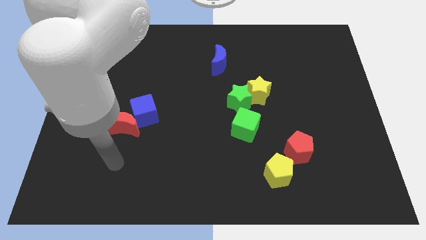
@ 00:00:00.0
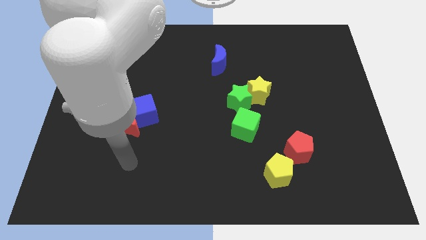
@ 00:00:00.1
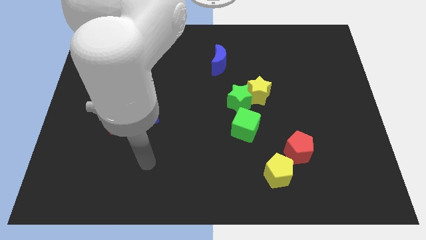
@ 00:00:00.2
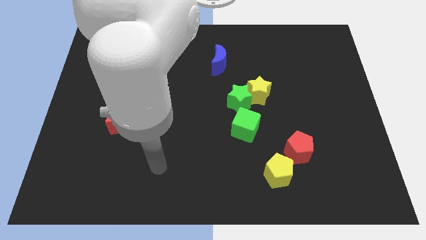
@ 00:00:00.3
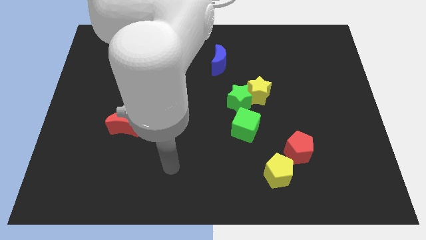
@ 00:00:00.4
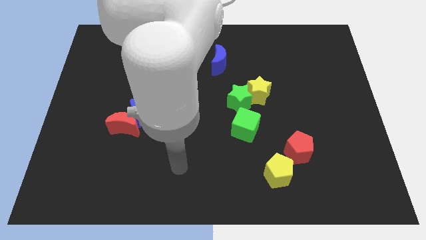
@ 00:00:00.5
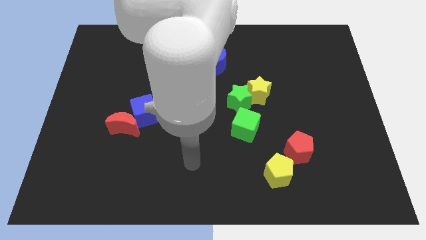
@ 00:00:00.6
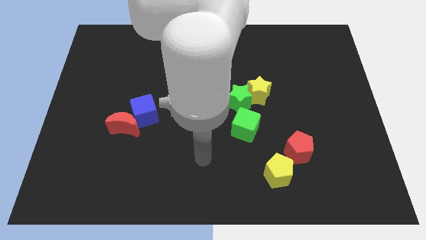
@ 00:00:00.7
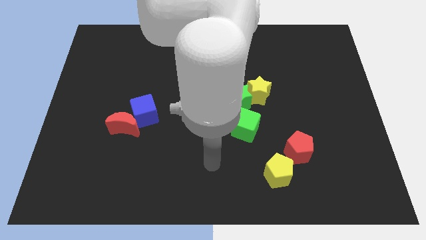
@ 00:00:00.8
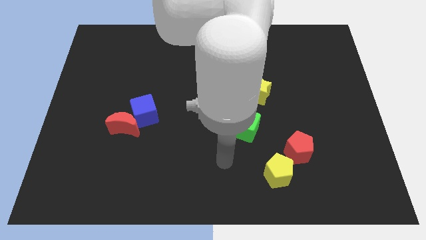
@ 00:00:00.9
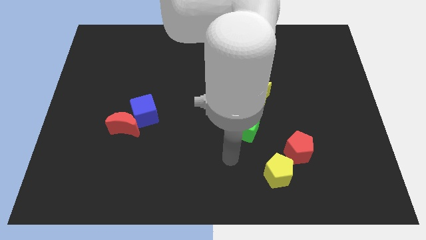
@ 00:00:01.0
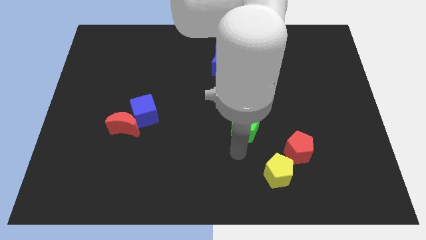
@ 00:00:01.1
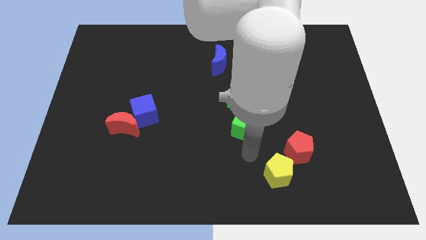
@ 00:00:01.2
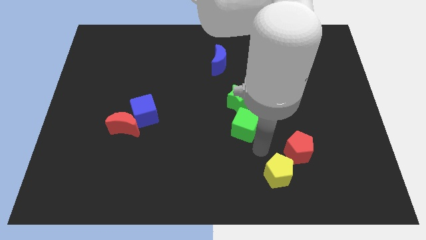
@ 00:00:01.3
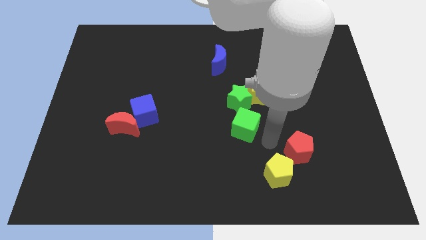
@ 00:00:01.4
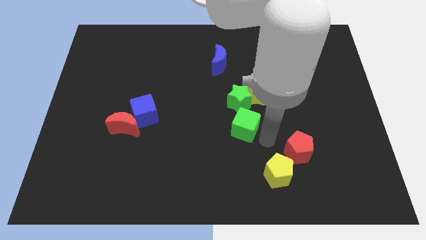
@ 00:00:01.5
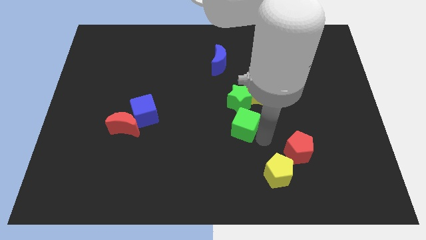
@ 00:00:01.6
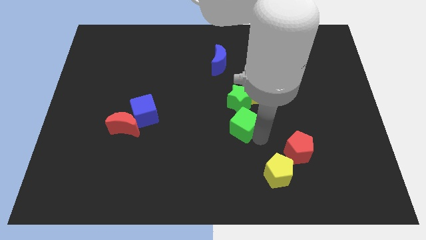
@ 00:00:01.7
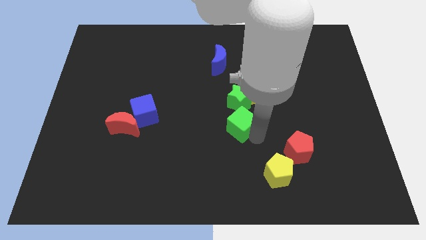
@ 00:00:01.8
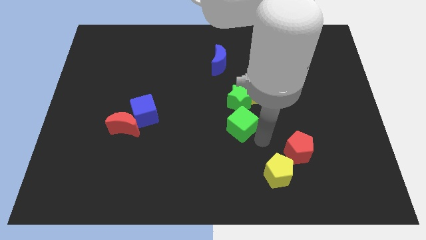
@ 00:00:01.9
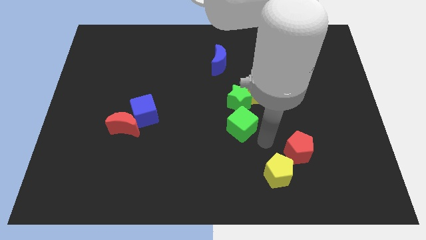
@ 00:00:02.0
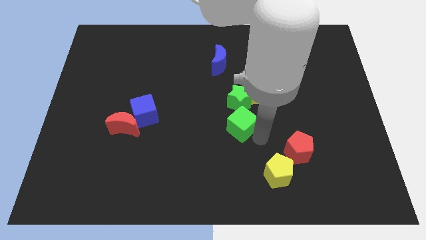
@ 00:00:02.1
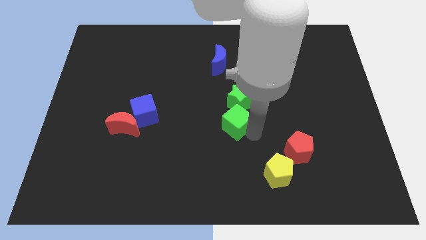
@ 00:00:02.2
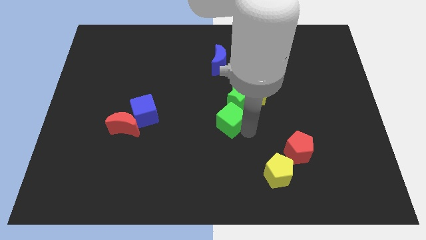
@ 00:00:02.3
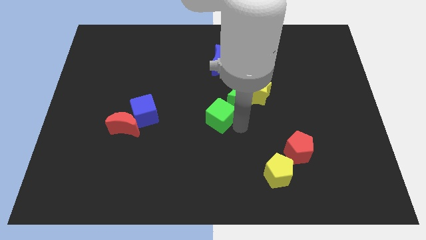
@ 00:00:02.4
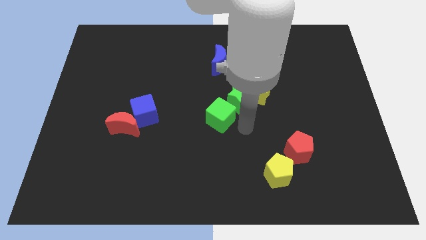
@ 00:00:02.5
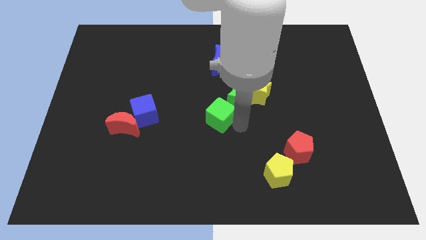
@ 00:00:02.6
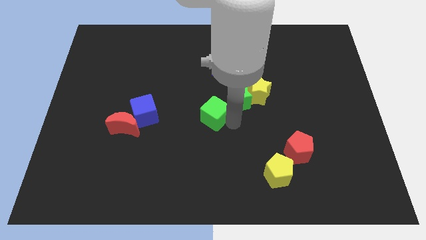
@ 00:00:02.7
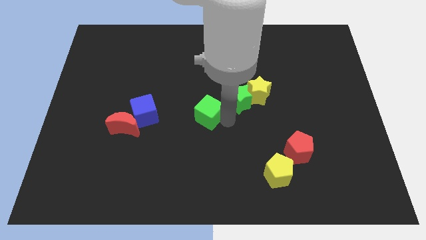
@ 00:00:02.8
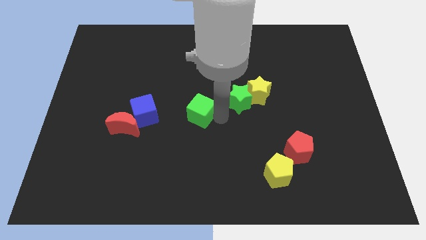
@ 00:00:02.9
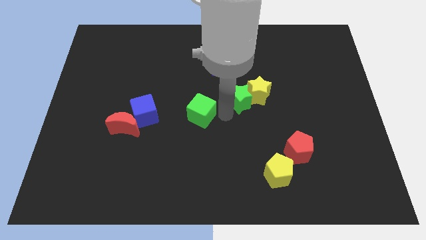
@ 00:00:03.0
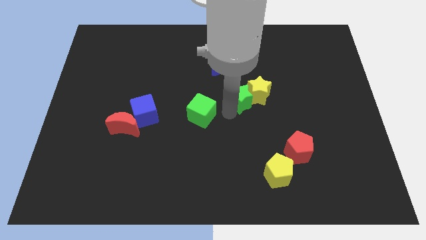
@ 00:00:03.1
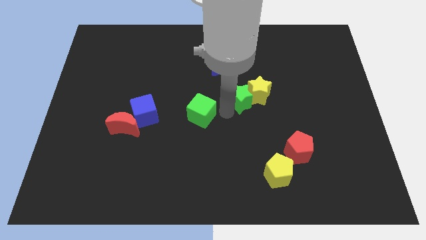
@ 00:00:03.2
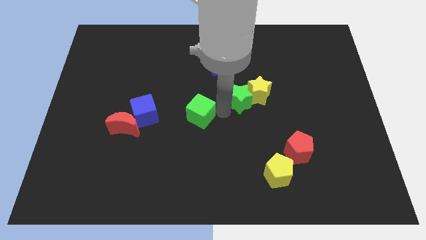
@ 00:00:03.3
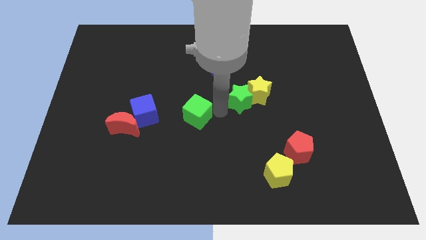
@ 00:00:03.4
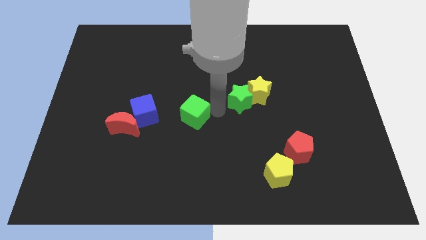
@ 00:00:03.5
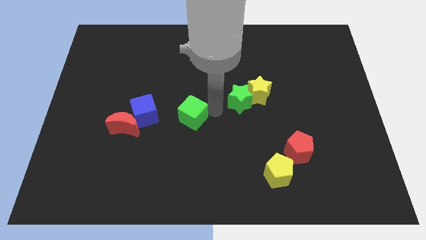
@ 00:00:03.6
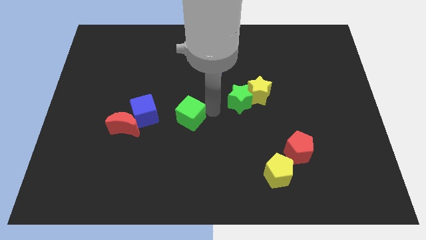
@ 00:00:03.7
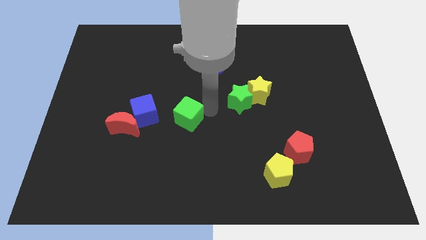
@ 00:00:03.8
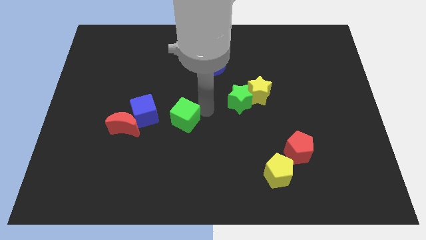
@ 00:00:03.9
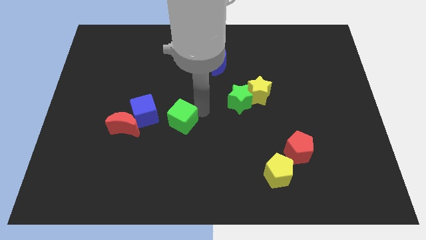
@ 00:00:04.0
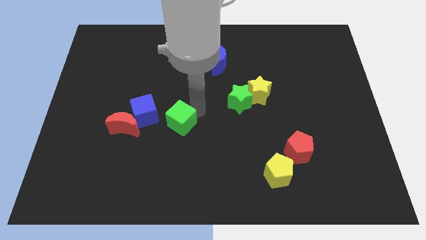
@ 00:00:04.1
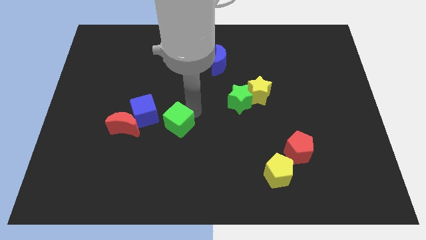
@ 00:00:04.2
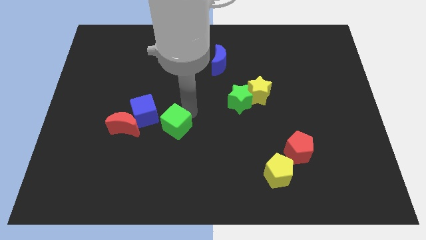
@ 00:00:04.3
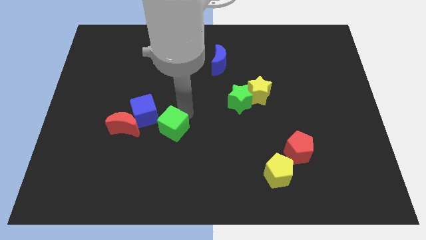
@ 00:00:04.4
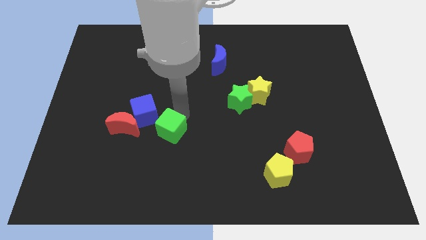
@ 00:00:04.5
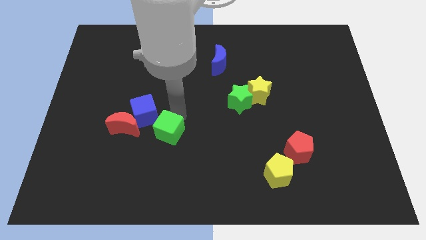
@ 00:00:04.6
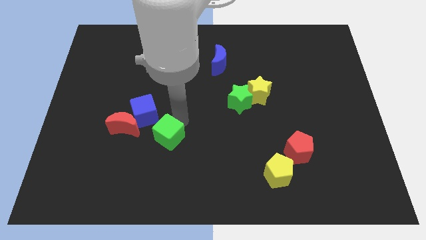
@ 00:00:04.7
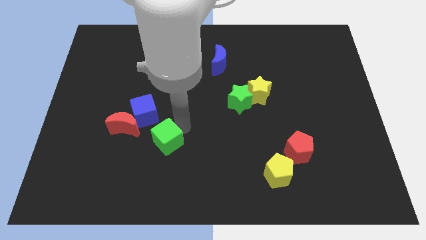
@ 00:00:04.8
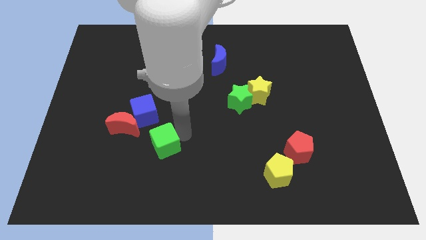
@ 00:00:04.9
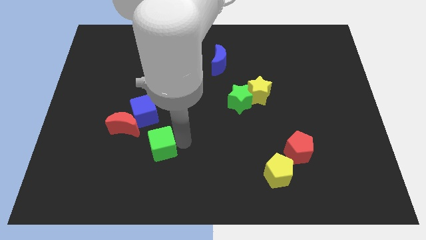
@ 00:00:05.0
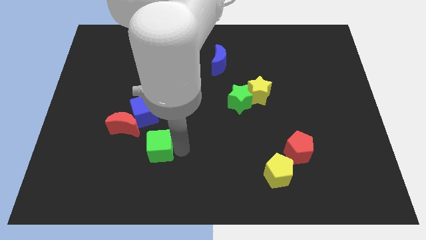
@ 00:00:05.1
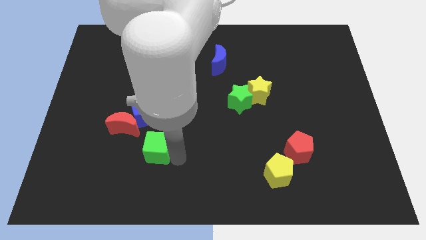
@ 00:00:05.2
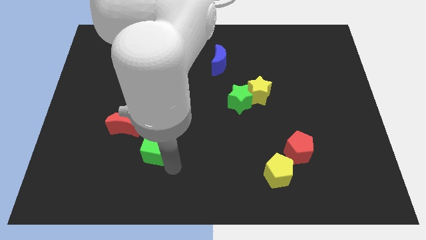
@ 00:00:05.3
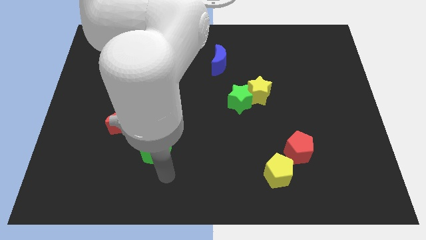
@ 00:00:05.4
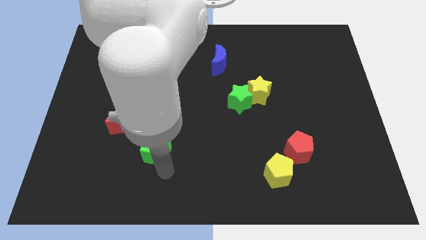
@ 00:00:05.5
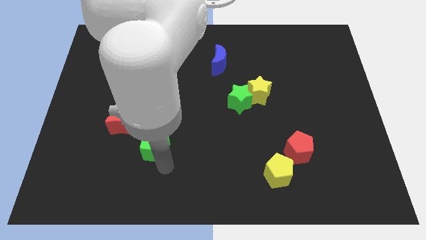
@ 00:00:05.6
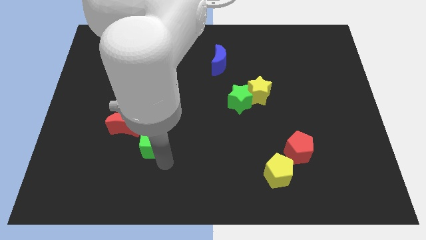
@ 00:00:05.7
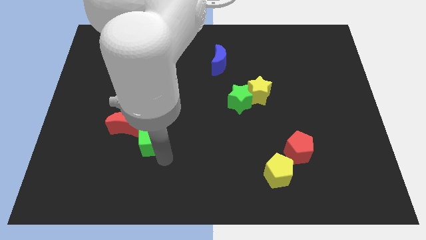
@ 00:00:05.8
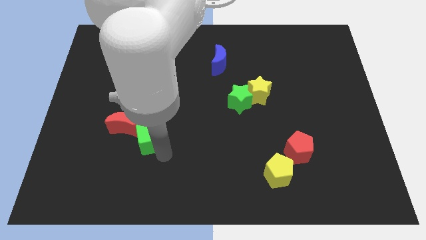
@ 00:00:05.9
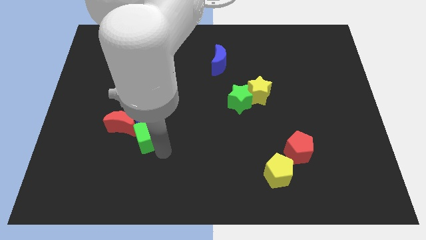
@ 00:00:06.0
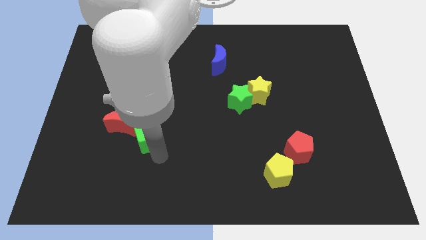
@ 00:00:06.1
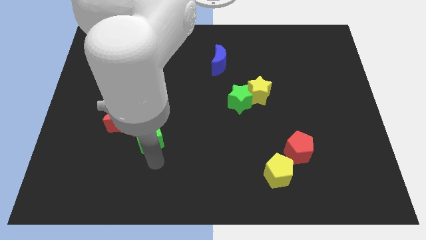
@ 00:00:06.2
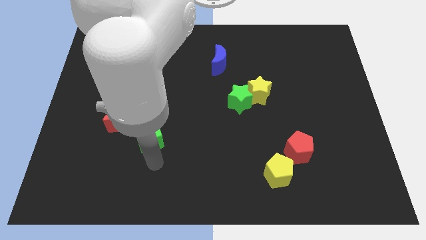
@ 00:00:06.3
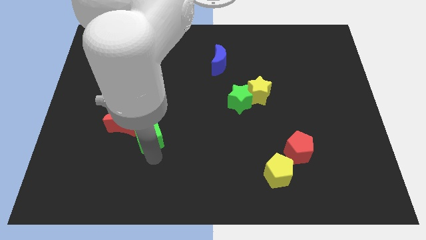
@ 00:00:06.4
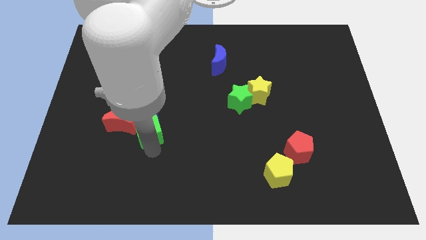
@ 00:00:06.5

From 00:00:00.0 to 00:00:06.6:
slide the green cube to the blue cube

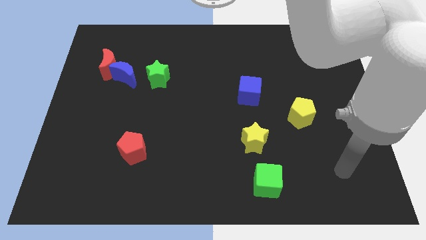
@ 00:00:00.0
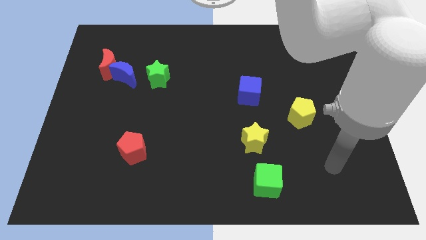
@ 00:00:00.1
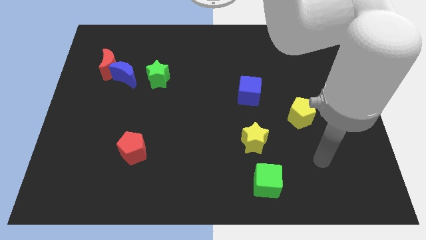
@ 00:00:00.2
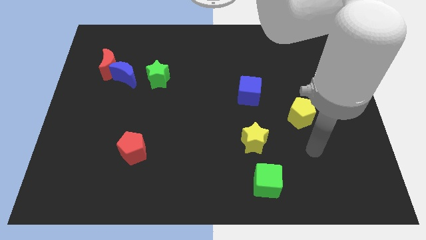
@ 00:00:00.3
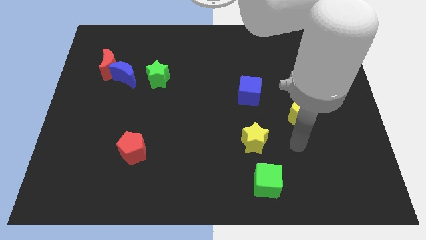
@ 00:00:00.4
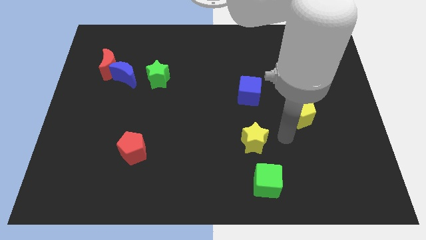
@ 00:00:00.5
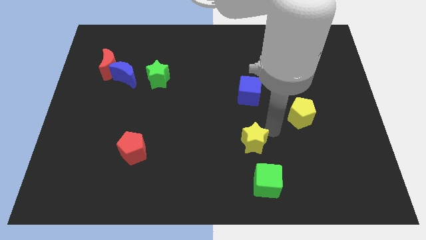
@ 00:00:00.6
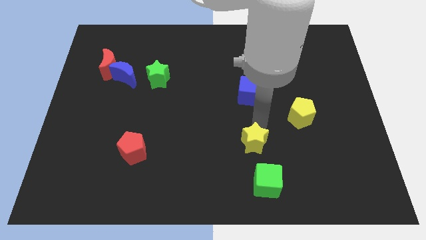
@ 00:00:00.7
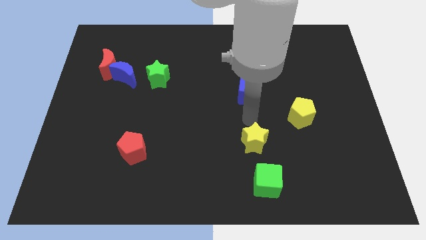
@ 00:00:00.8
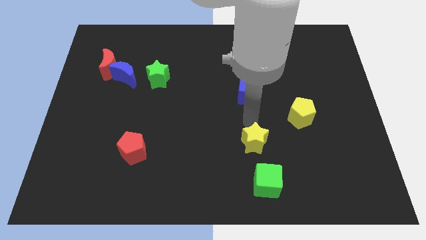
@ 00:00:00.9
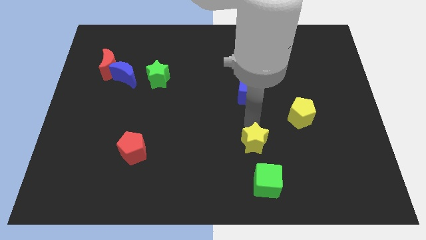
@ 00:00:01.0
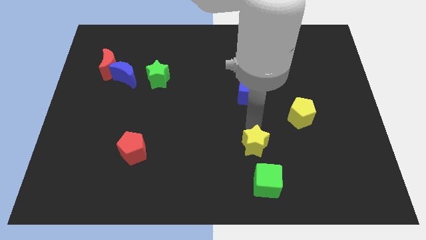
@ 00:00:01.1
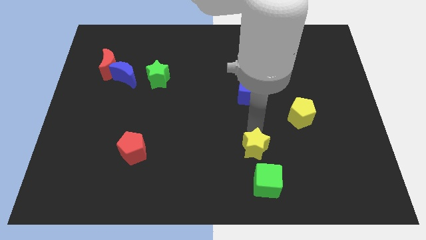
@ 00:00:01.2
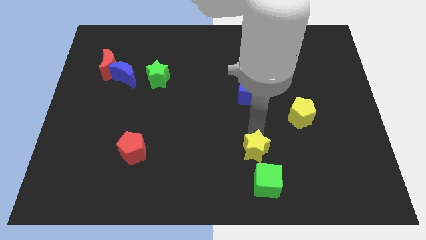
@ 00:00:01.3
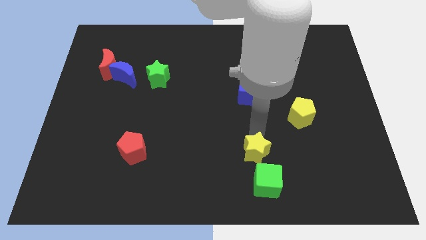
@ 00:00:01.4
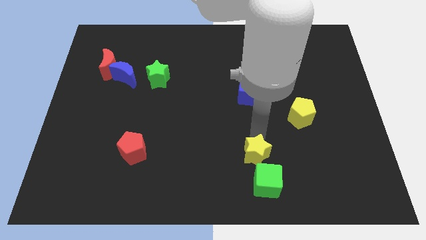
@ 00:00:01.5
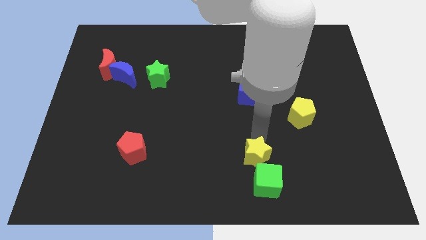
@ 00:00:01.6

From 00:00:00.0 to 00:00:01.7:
push the yellow star close to the green cube
